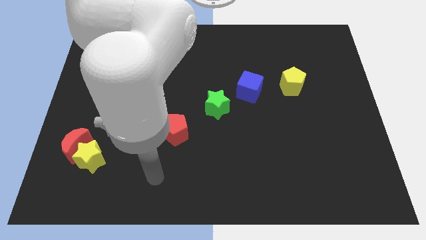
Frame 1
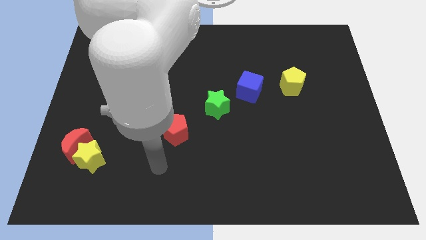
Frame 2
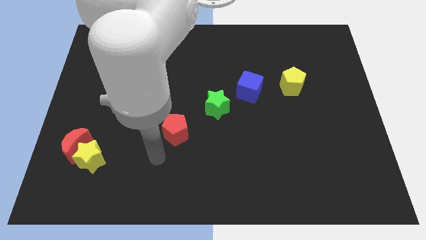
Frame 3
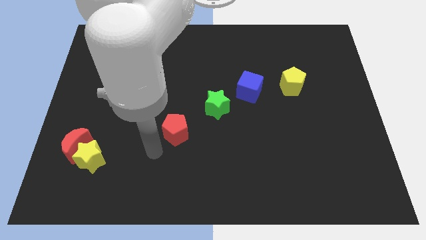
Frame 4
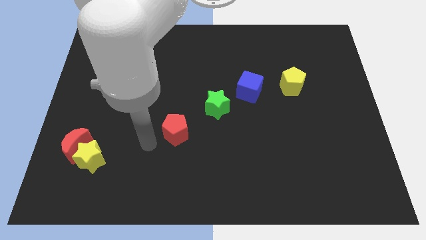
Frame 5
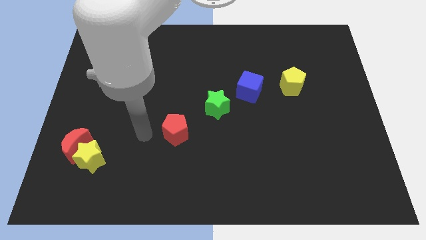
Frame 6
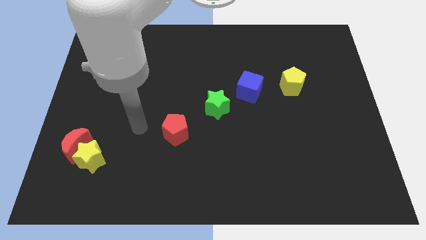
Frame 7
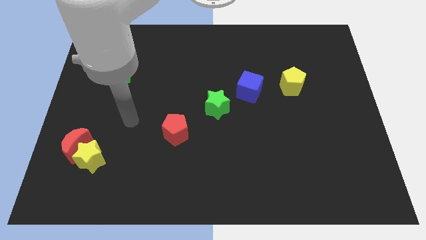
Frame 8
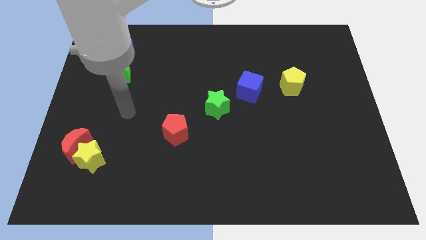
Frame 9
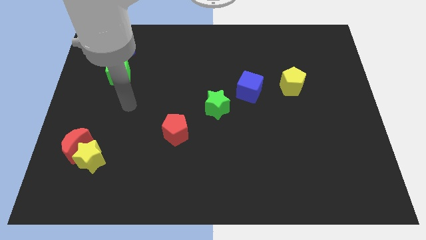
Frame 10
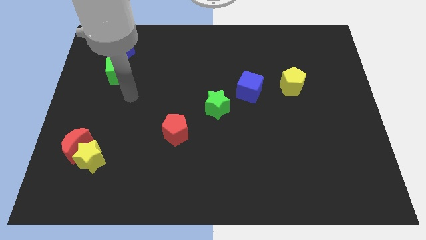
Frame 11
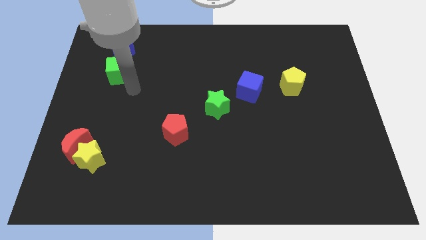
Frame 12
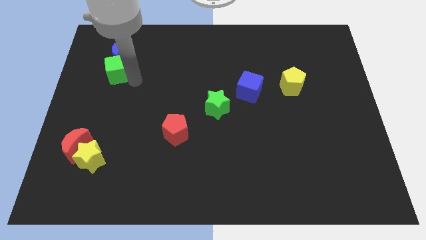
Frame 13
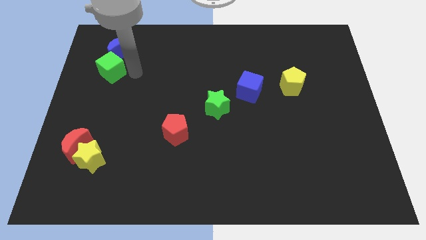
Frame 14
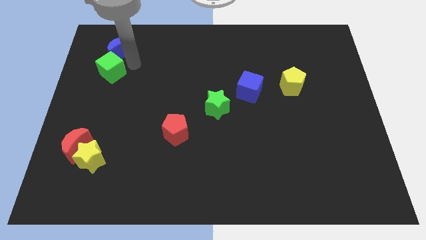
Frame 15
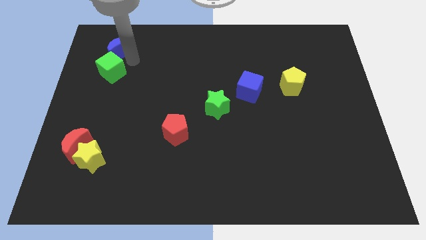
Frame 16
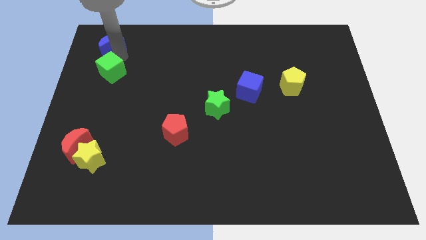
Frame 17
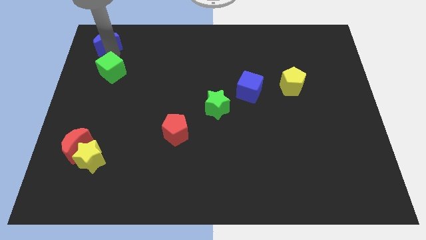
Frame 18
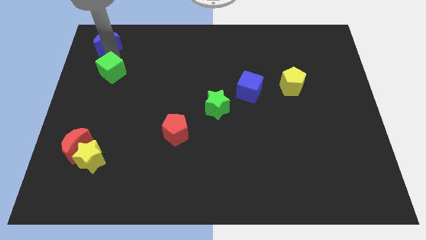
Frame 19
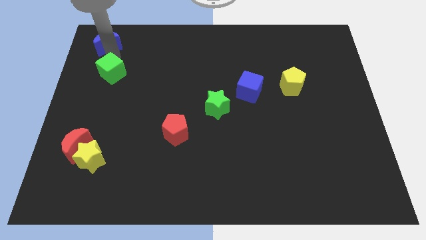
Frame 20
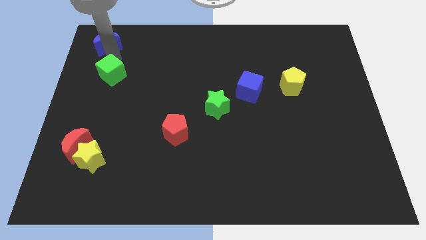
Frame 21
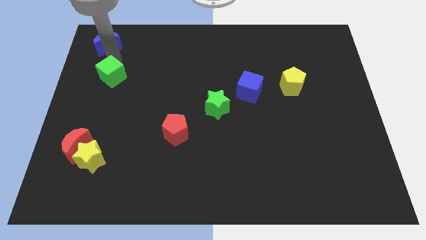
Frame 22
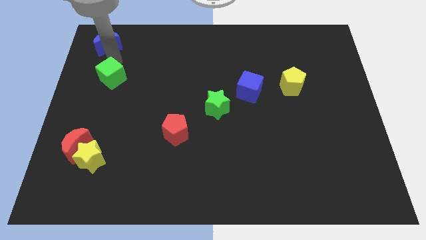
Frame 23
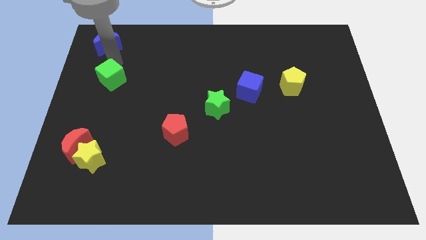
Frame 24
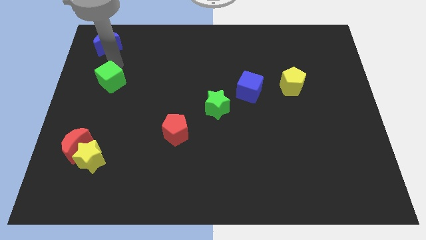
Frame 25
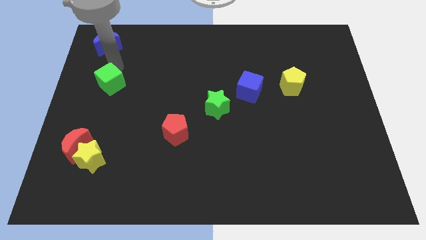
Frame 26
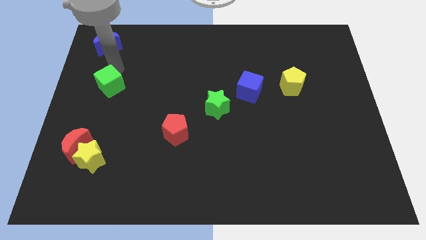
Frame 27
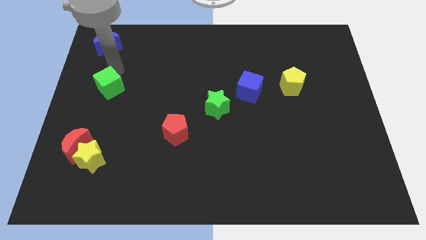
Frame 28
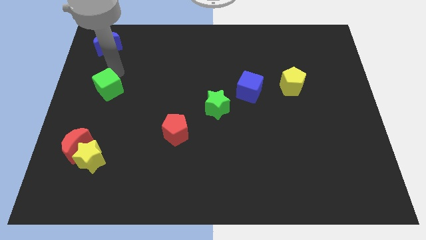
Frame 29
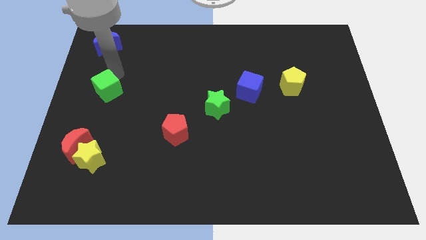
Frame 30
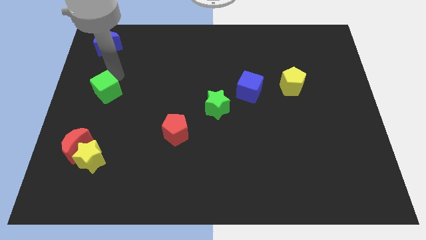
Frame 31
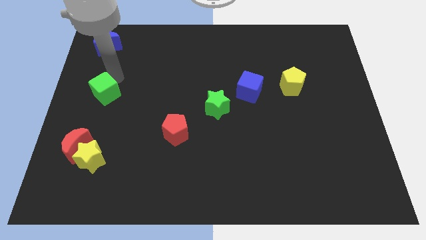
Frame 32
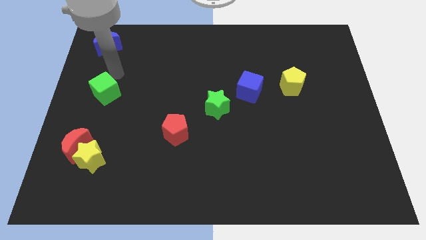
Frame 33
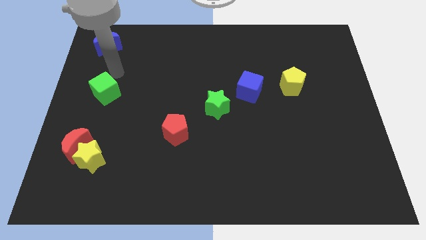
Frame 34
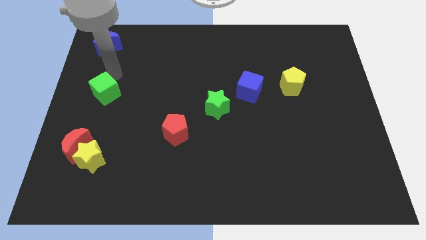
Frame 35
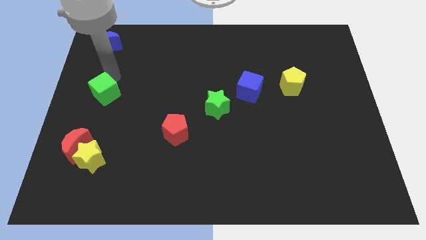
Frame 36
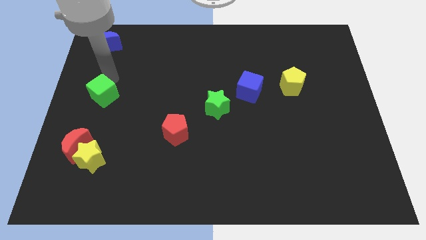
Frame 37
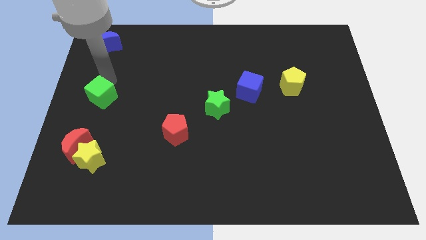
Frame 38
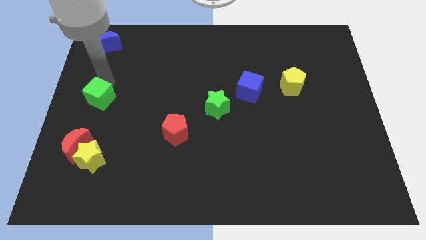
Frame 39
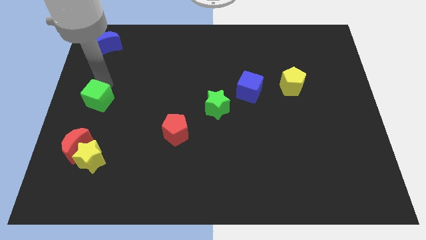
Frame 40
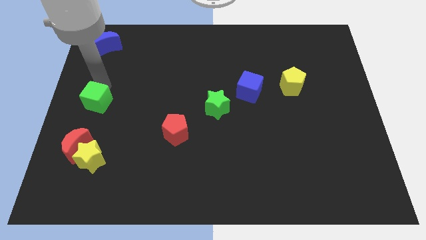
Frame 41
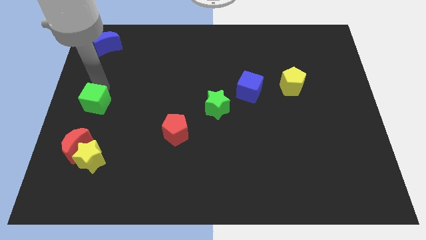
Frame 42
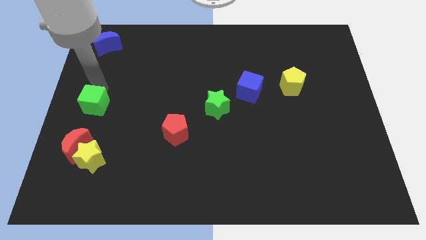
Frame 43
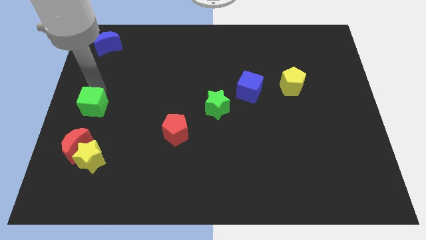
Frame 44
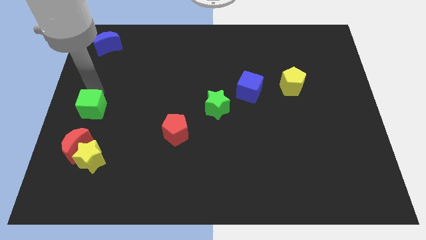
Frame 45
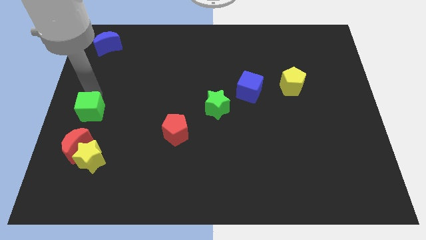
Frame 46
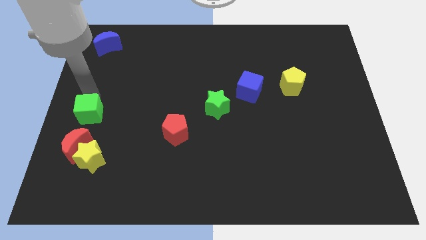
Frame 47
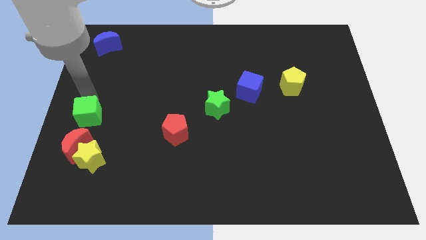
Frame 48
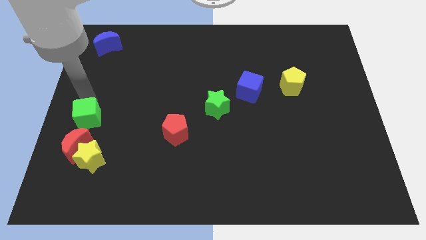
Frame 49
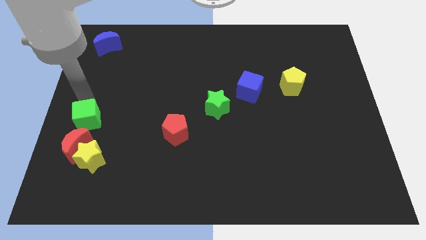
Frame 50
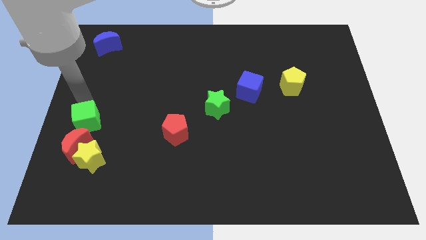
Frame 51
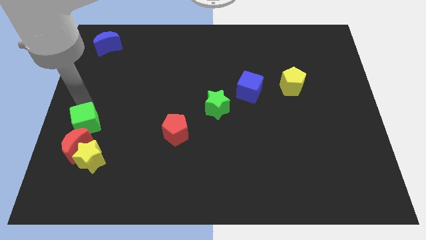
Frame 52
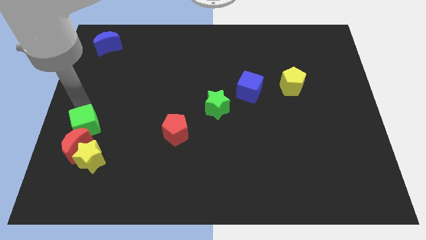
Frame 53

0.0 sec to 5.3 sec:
slide the green cube to the red moon

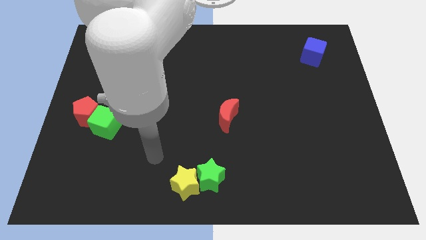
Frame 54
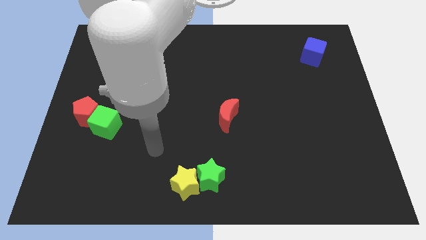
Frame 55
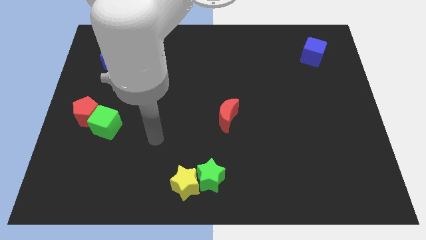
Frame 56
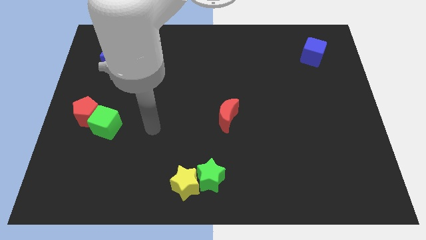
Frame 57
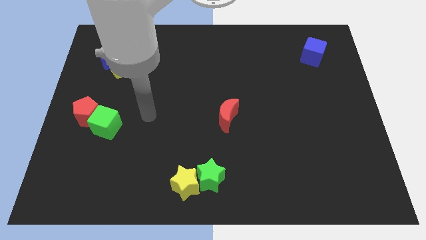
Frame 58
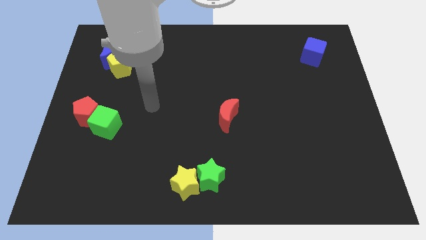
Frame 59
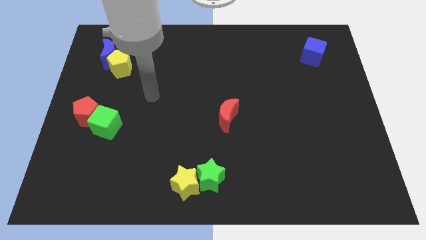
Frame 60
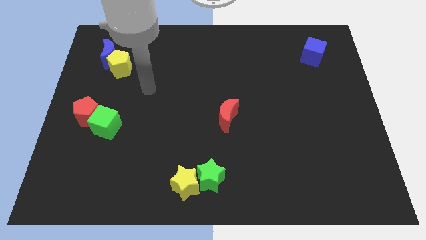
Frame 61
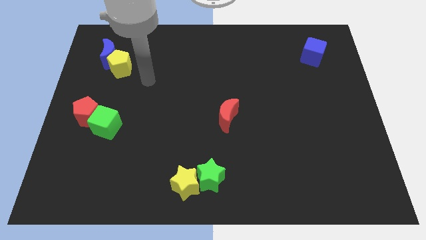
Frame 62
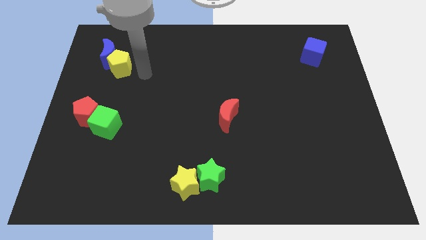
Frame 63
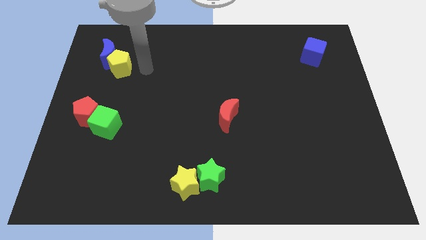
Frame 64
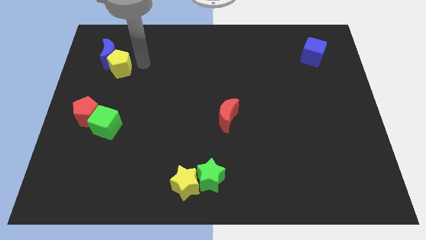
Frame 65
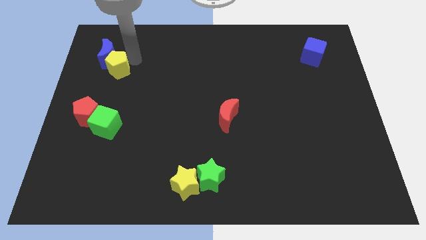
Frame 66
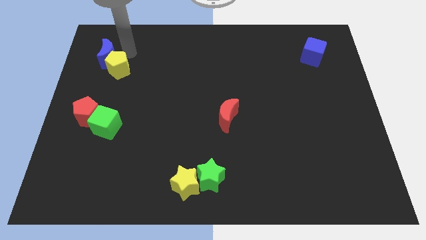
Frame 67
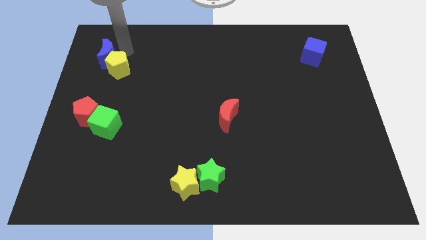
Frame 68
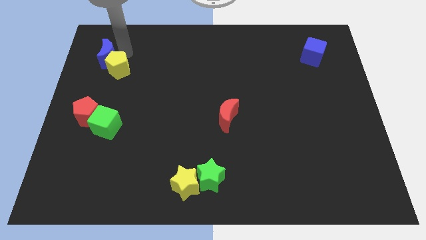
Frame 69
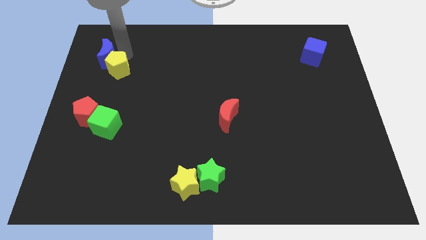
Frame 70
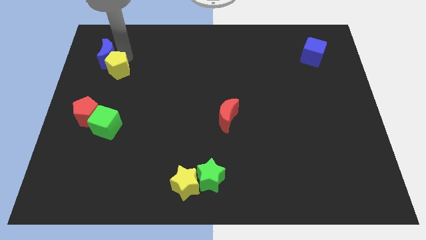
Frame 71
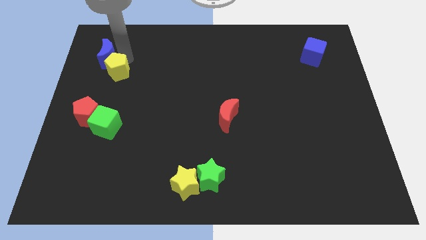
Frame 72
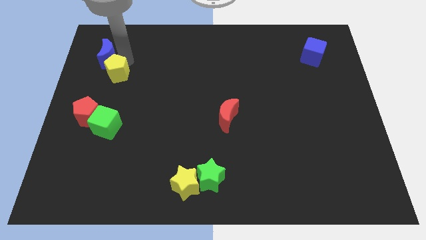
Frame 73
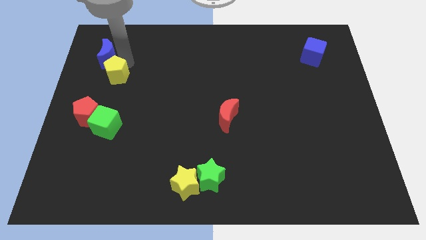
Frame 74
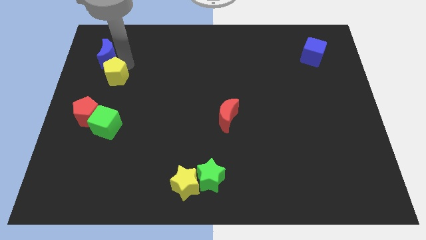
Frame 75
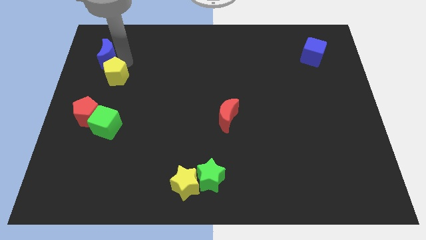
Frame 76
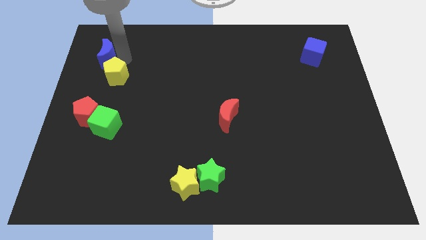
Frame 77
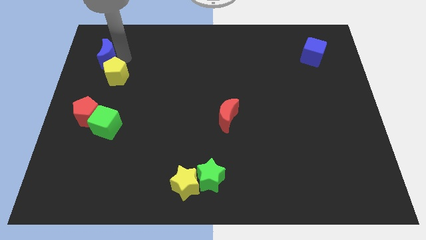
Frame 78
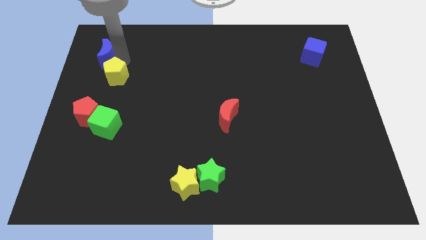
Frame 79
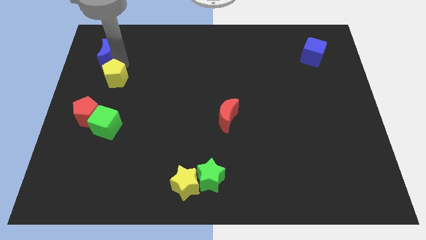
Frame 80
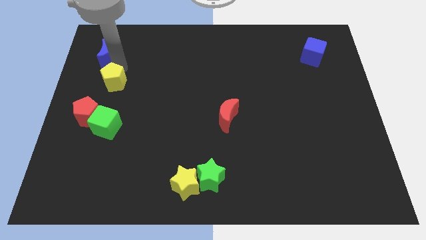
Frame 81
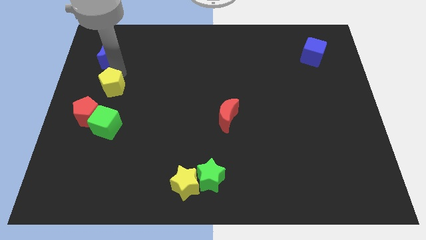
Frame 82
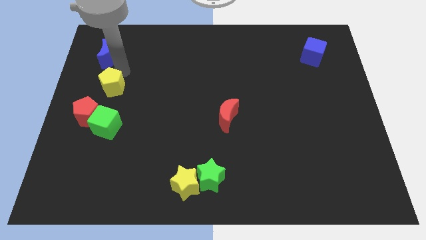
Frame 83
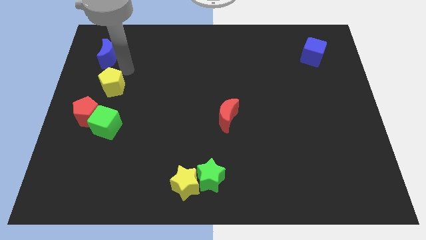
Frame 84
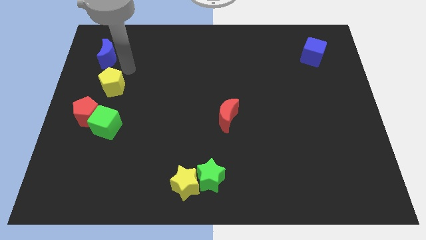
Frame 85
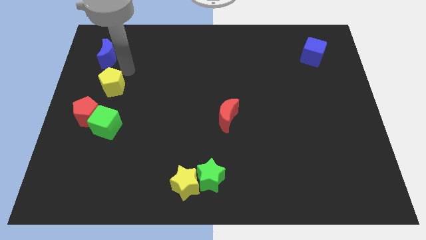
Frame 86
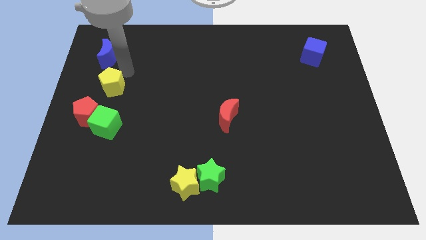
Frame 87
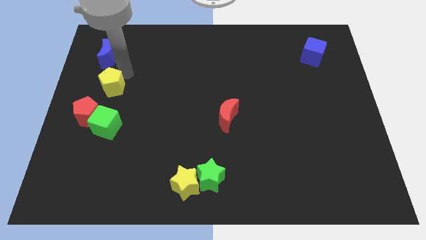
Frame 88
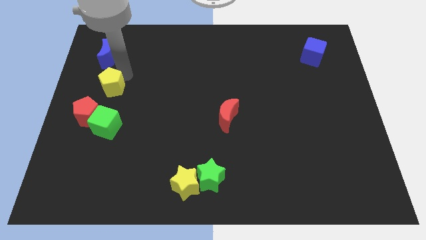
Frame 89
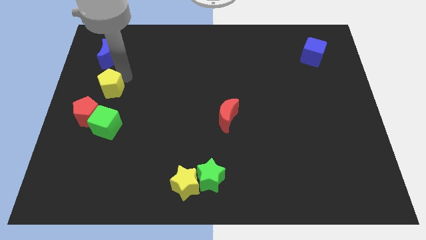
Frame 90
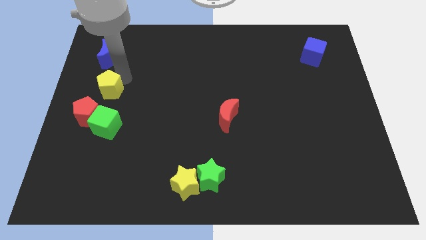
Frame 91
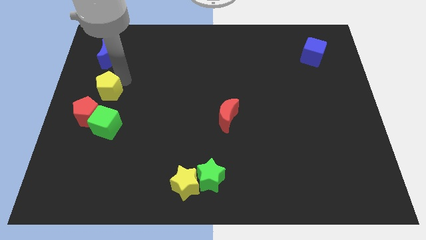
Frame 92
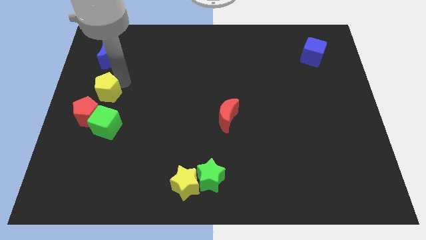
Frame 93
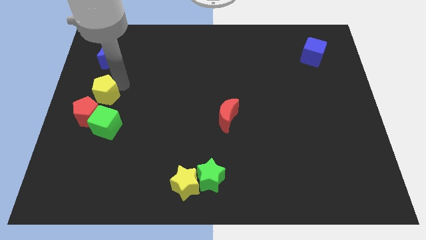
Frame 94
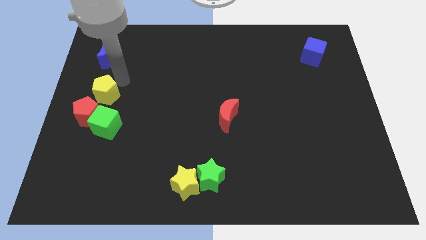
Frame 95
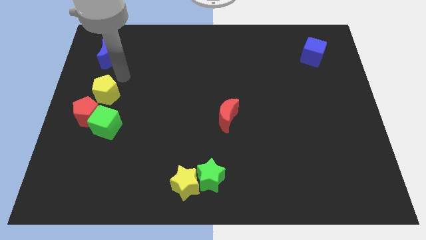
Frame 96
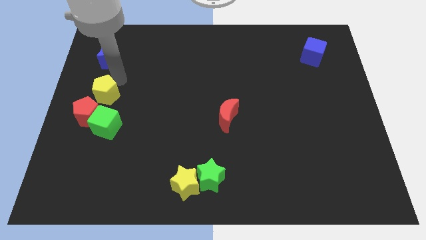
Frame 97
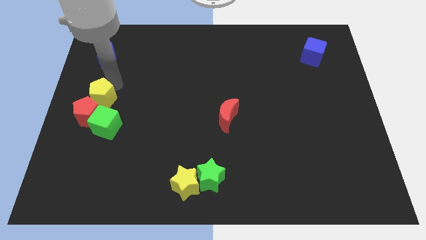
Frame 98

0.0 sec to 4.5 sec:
move the yellow pentagon close to the red pentagon
